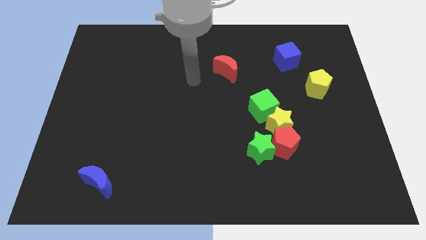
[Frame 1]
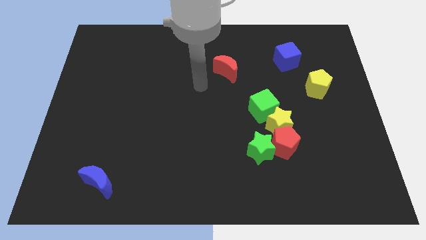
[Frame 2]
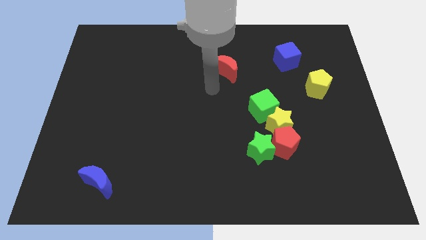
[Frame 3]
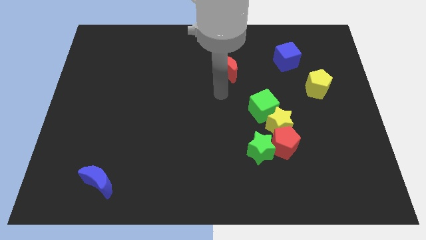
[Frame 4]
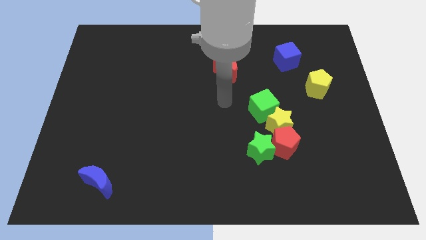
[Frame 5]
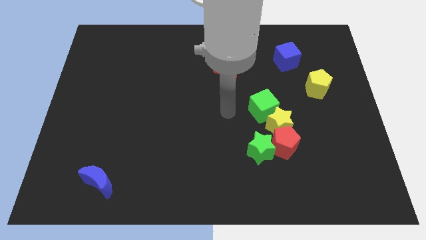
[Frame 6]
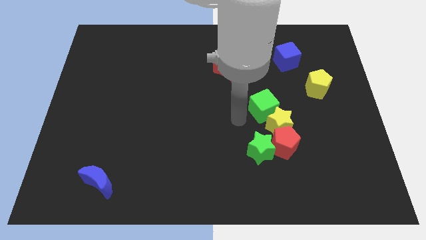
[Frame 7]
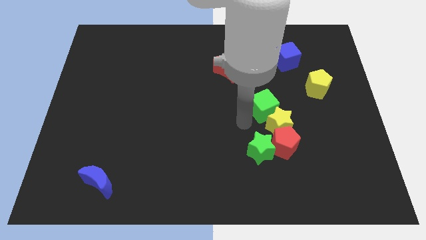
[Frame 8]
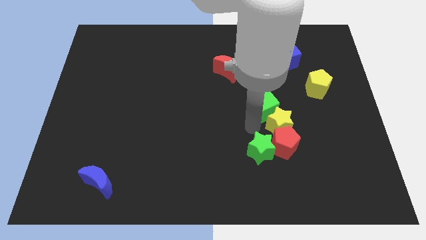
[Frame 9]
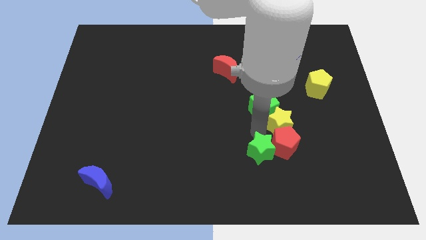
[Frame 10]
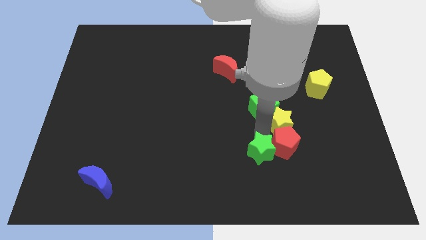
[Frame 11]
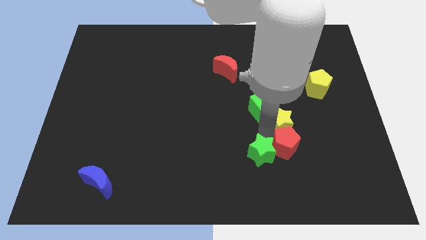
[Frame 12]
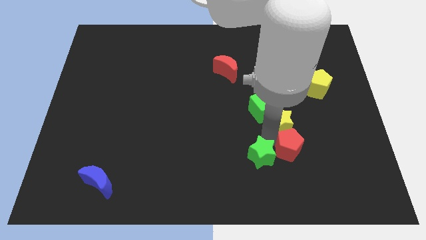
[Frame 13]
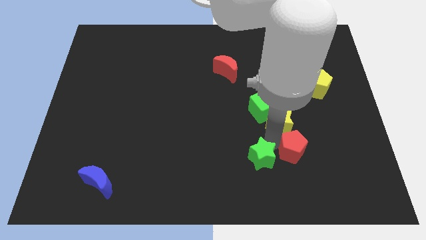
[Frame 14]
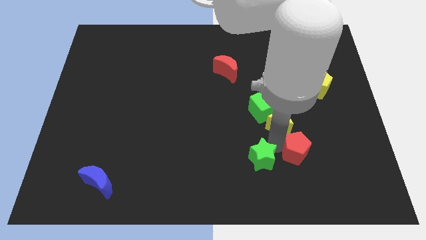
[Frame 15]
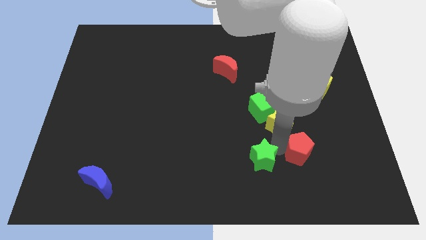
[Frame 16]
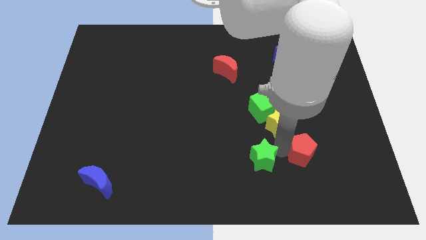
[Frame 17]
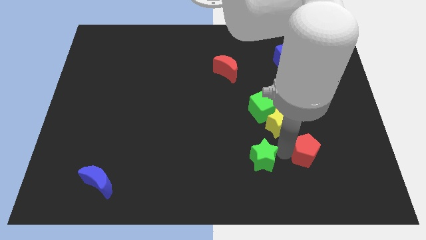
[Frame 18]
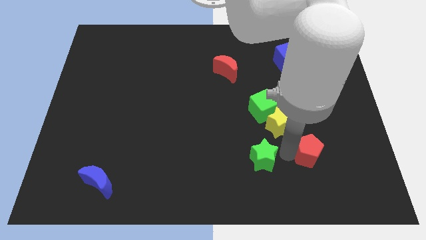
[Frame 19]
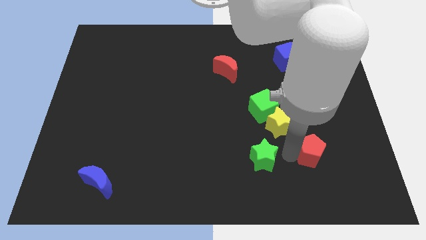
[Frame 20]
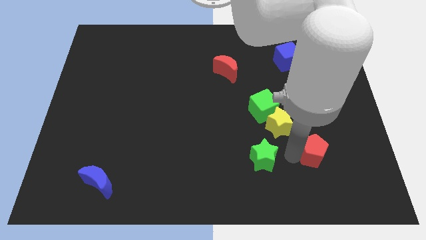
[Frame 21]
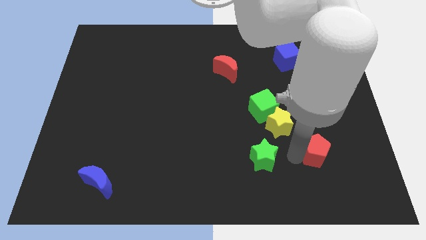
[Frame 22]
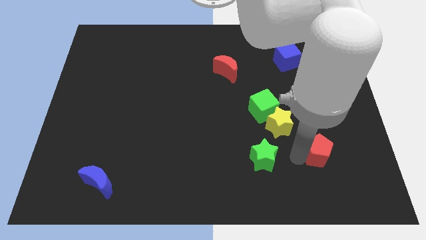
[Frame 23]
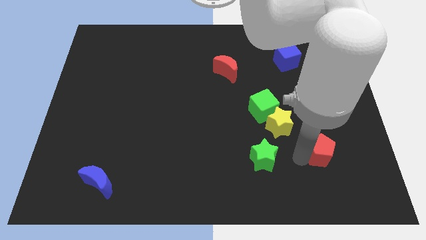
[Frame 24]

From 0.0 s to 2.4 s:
separate the red pentagon from the yellow star and green star

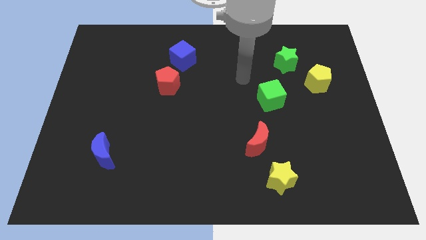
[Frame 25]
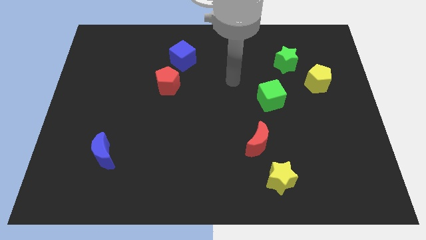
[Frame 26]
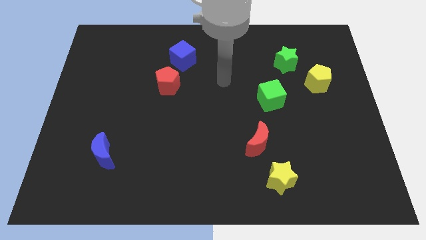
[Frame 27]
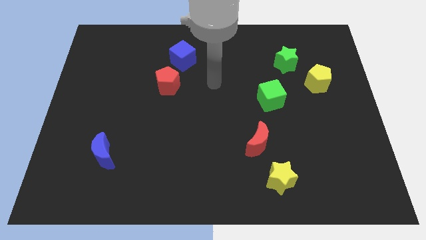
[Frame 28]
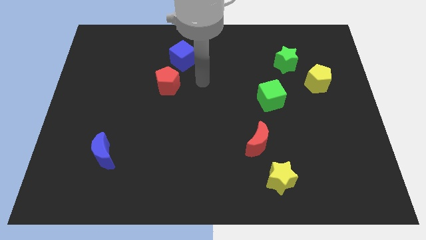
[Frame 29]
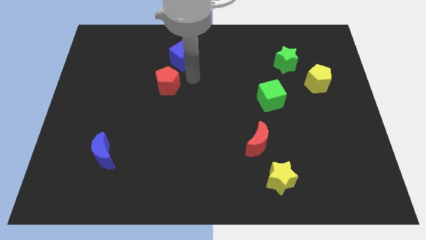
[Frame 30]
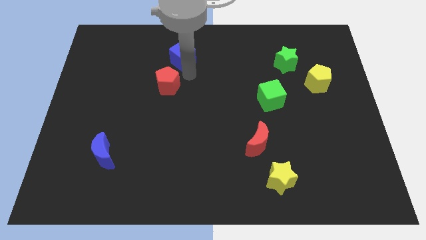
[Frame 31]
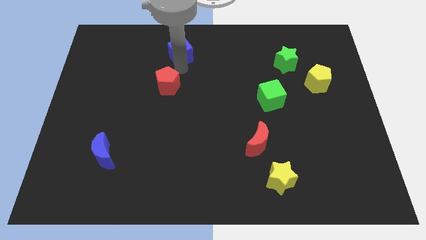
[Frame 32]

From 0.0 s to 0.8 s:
move the red pentagon away from the blue cube

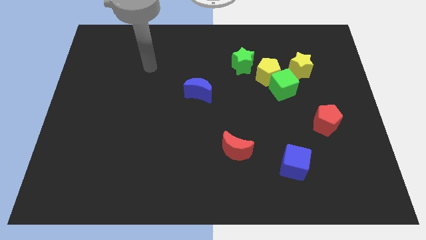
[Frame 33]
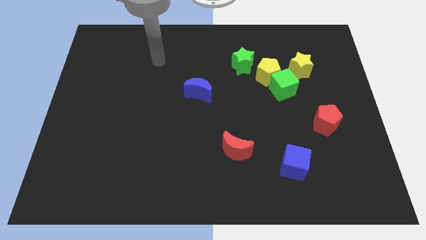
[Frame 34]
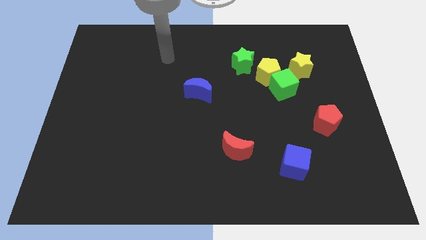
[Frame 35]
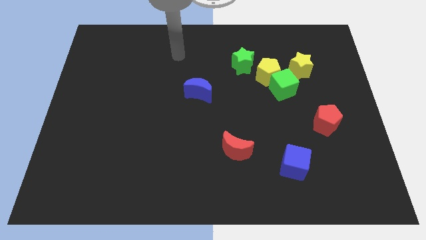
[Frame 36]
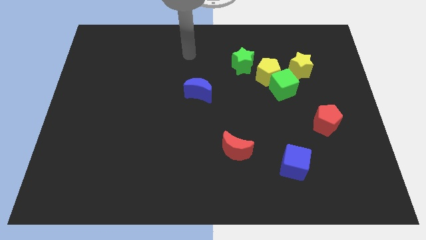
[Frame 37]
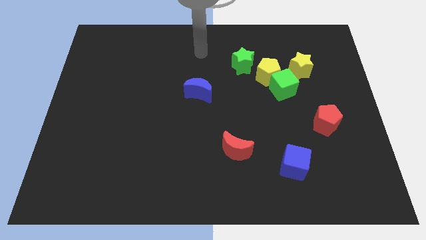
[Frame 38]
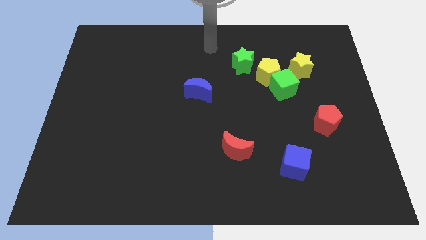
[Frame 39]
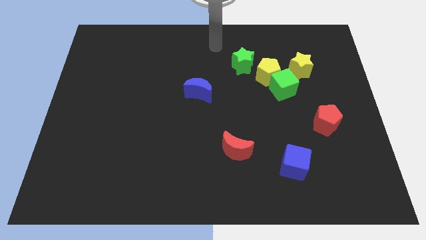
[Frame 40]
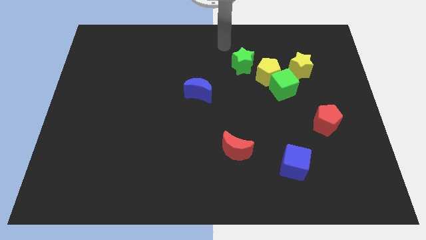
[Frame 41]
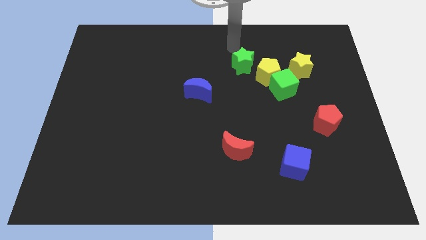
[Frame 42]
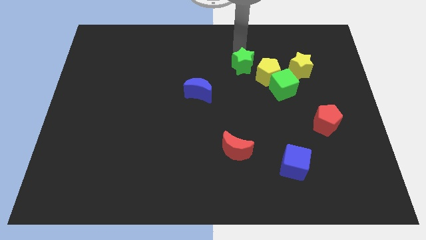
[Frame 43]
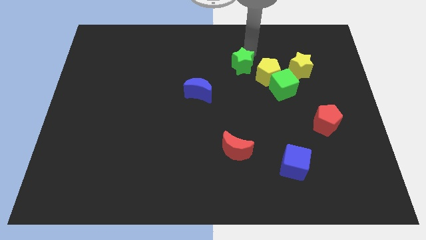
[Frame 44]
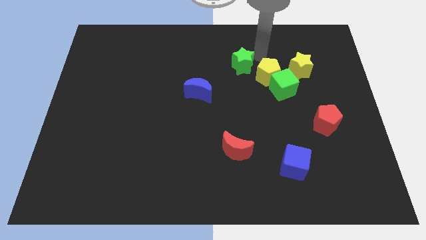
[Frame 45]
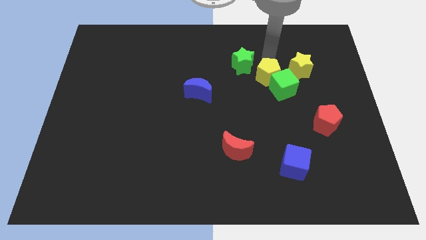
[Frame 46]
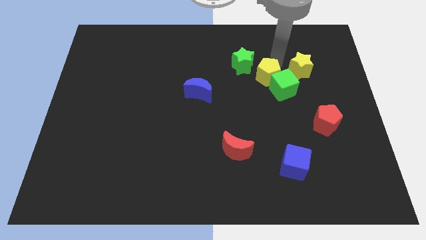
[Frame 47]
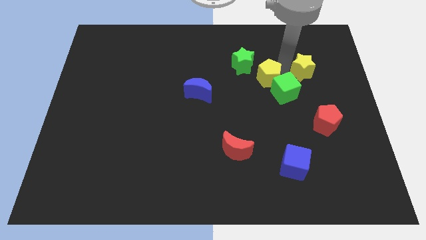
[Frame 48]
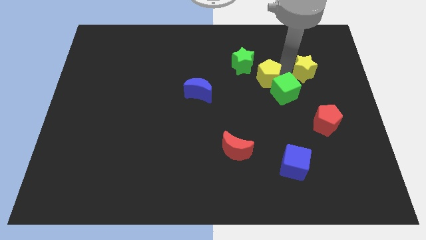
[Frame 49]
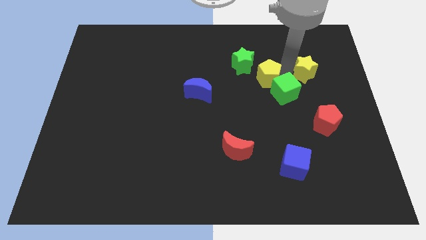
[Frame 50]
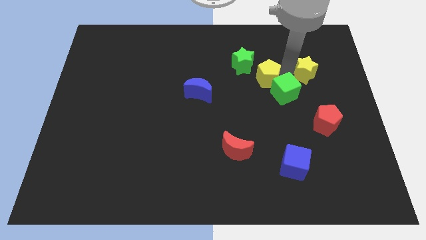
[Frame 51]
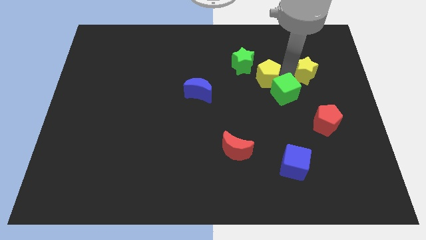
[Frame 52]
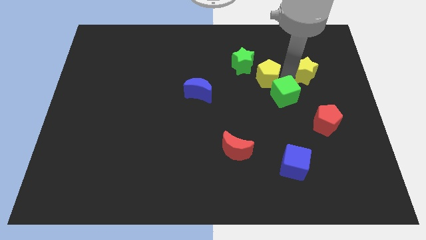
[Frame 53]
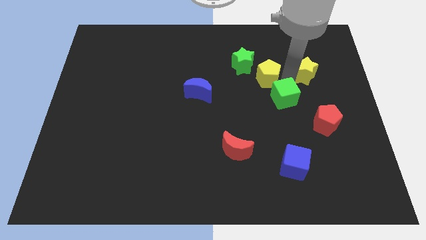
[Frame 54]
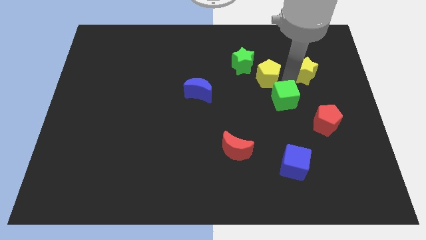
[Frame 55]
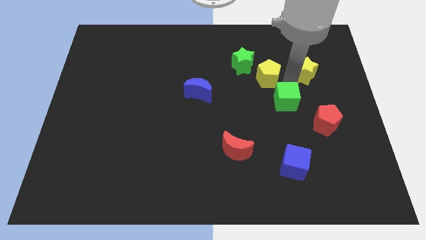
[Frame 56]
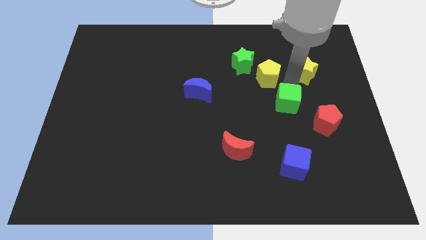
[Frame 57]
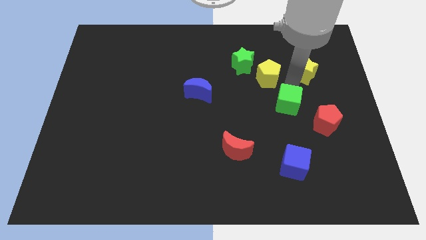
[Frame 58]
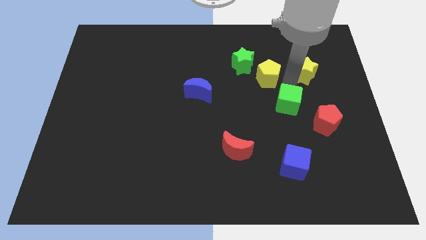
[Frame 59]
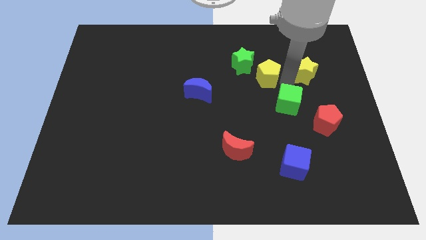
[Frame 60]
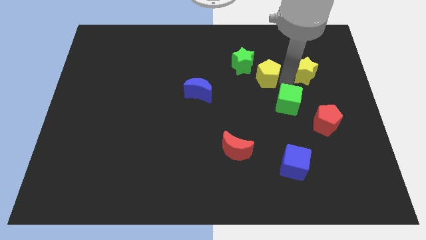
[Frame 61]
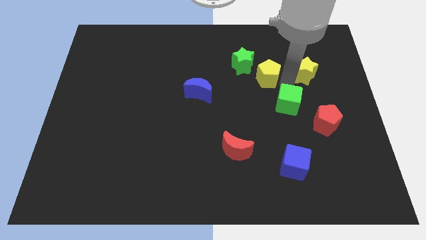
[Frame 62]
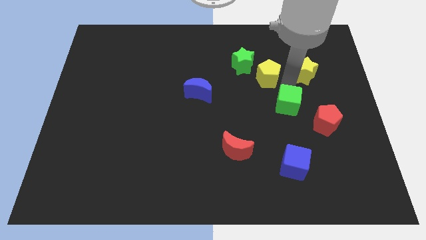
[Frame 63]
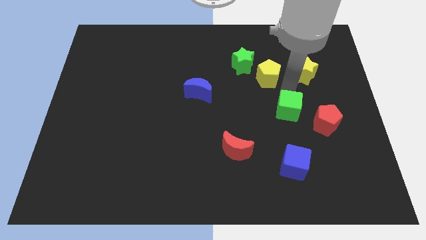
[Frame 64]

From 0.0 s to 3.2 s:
move the green cube away from the yellow pentagon and yellow star

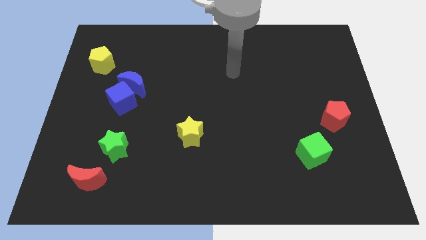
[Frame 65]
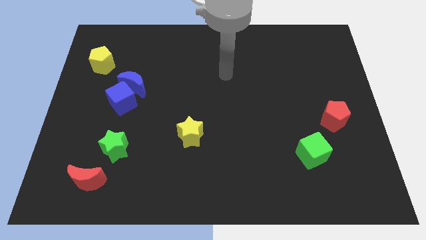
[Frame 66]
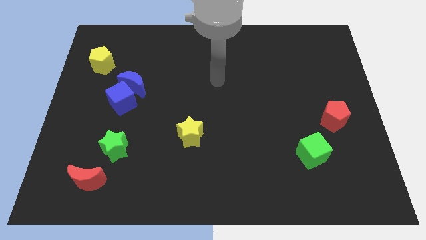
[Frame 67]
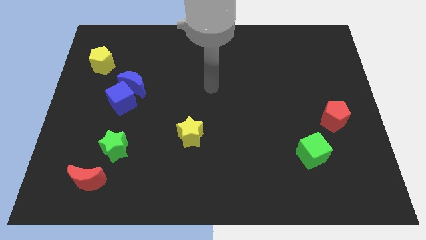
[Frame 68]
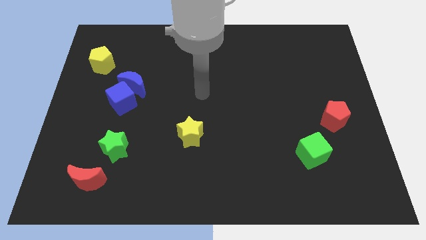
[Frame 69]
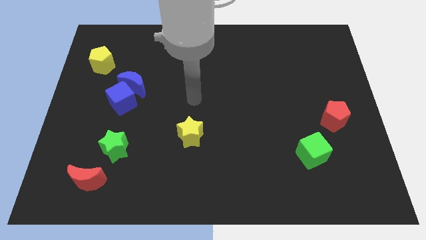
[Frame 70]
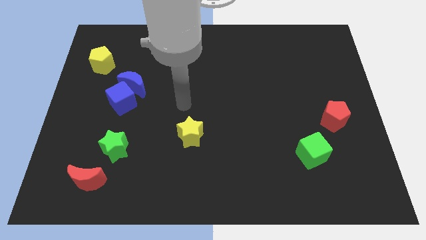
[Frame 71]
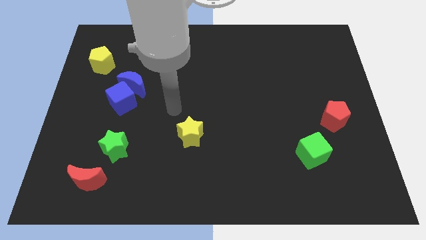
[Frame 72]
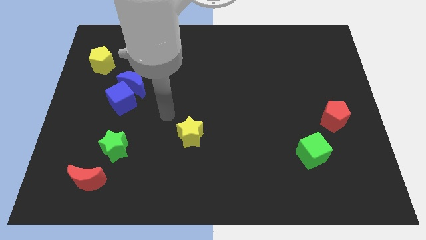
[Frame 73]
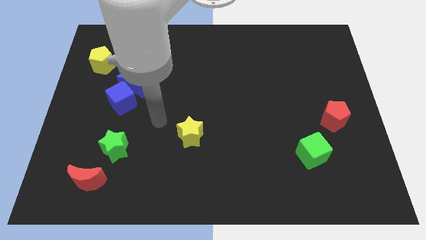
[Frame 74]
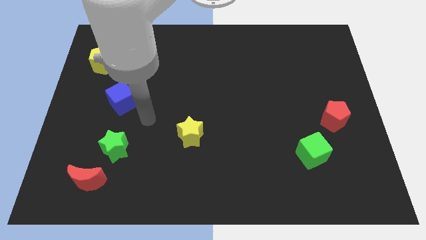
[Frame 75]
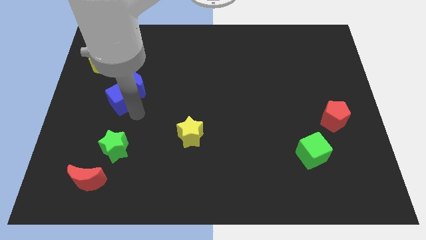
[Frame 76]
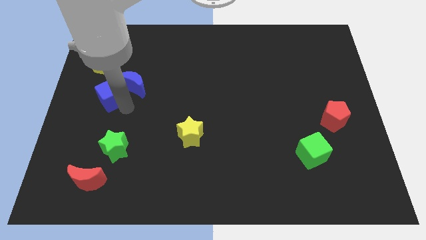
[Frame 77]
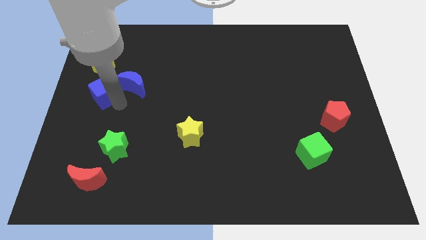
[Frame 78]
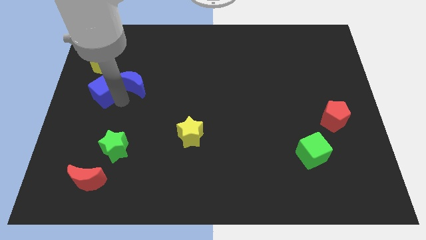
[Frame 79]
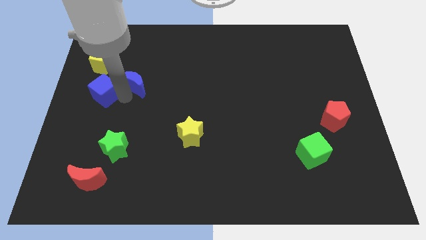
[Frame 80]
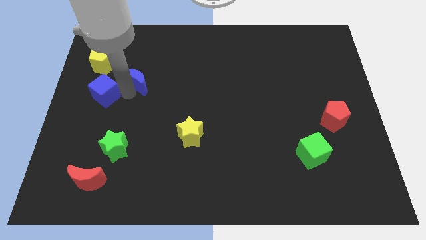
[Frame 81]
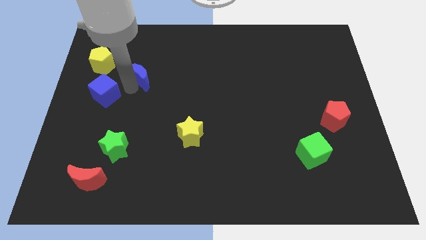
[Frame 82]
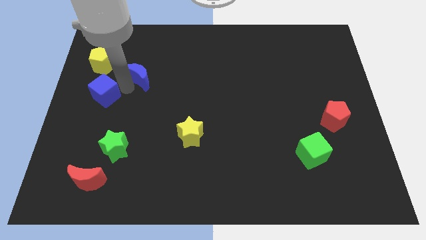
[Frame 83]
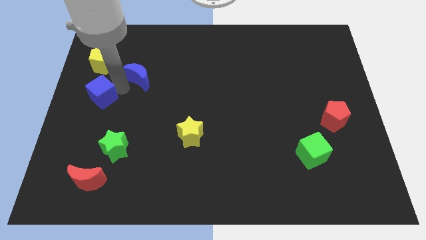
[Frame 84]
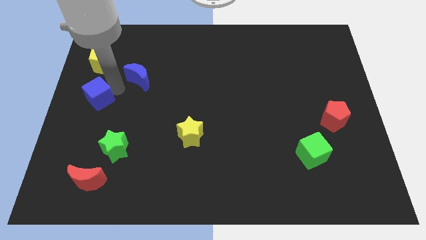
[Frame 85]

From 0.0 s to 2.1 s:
separate the blue moon from the blue cube

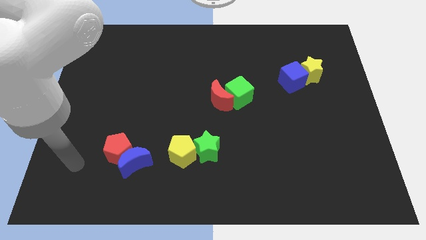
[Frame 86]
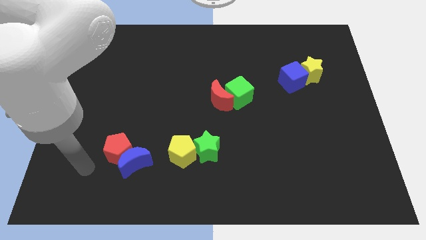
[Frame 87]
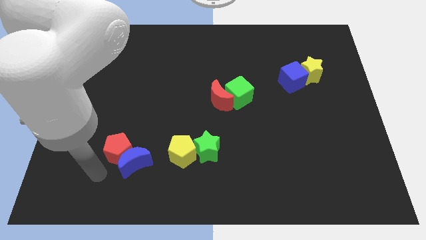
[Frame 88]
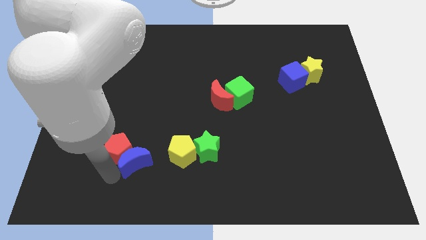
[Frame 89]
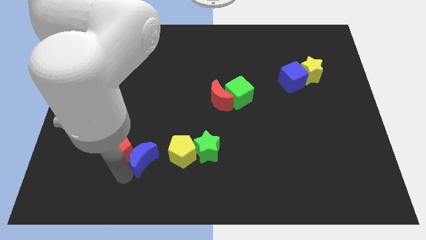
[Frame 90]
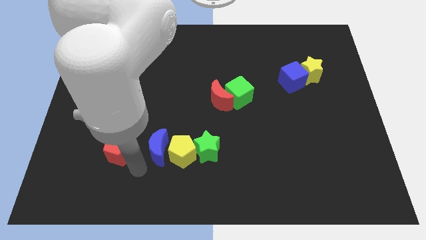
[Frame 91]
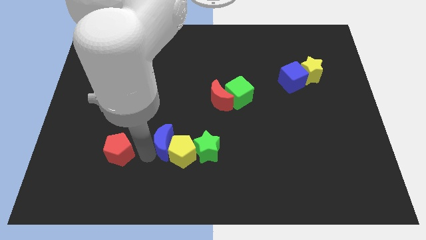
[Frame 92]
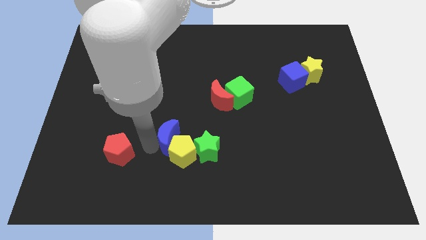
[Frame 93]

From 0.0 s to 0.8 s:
move the red pentagon away from the blue moon
